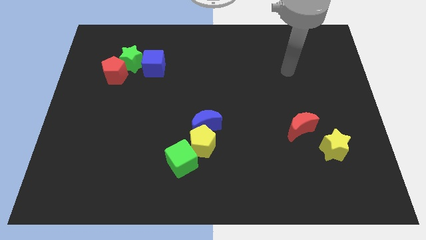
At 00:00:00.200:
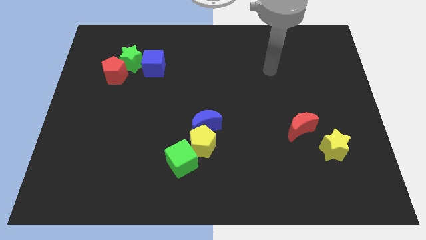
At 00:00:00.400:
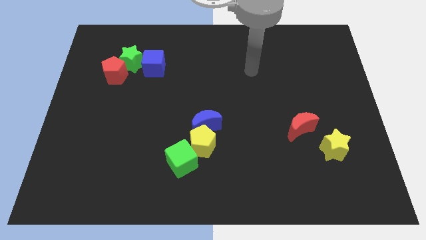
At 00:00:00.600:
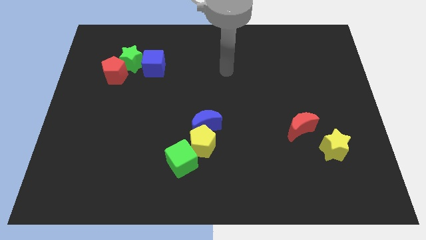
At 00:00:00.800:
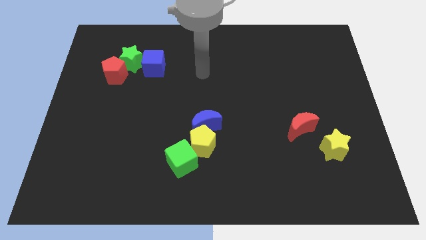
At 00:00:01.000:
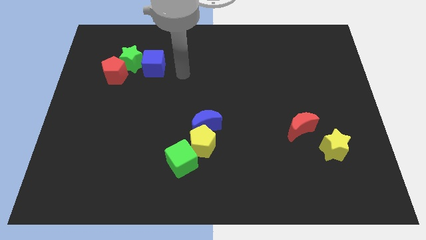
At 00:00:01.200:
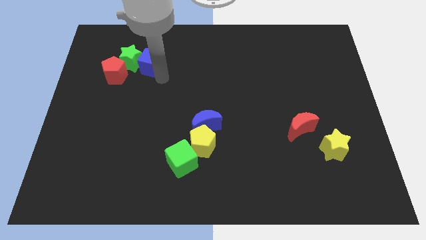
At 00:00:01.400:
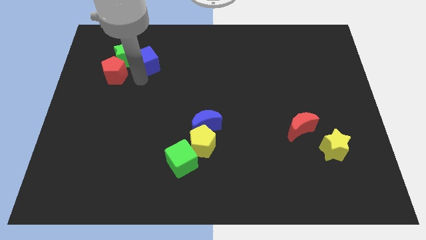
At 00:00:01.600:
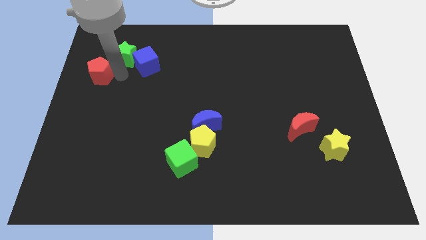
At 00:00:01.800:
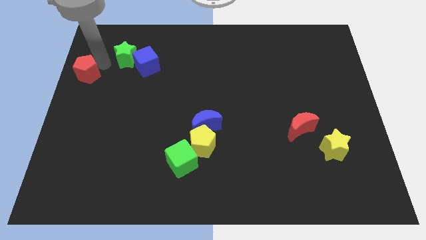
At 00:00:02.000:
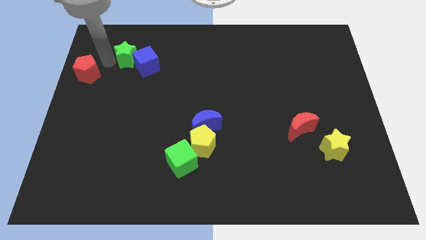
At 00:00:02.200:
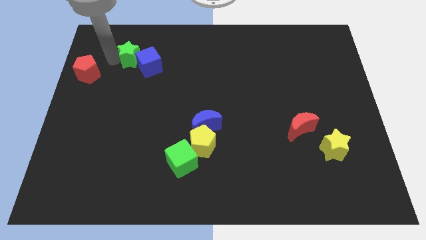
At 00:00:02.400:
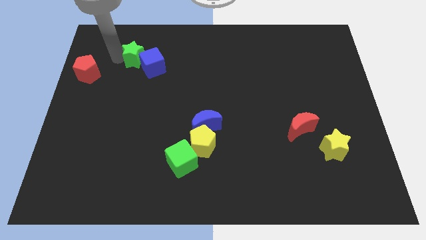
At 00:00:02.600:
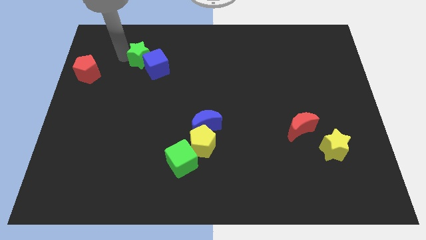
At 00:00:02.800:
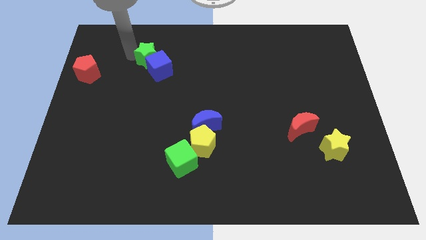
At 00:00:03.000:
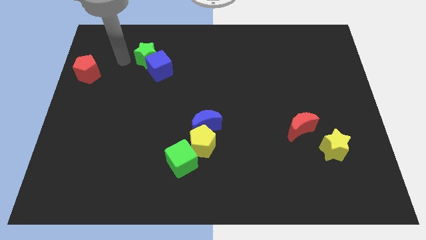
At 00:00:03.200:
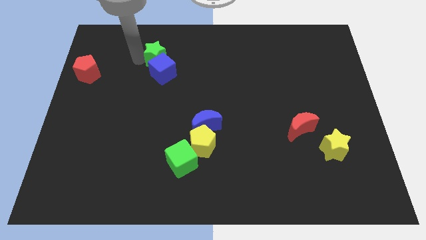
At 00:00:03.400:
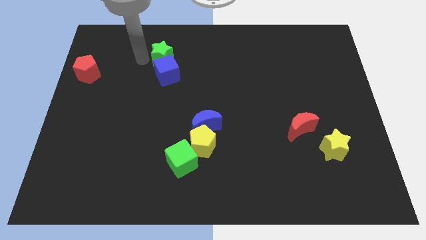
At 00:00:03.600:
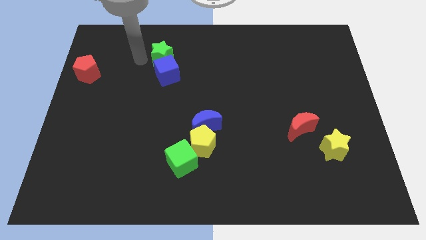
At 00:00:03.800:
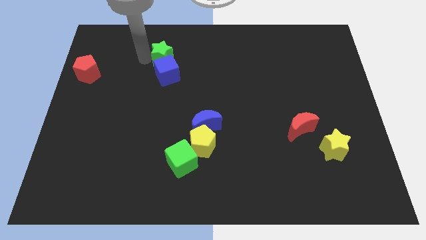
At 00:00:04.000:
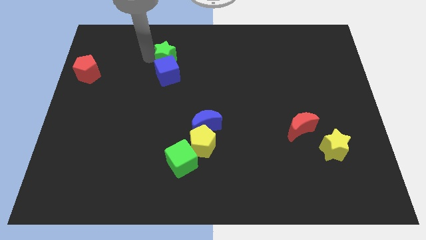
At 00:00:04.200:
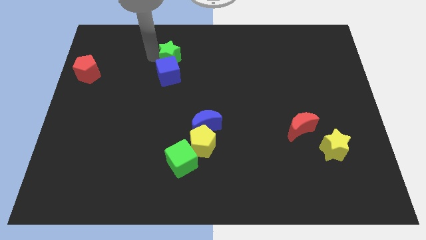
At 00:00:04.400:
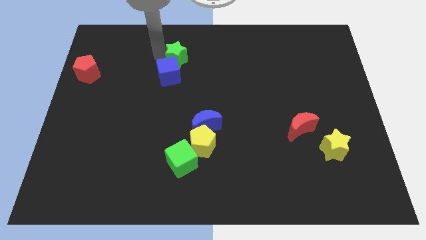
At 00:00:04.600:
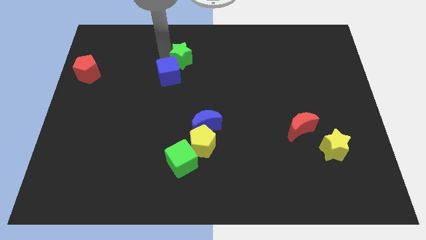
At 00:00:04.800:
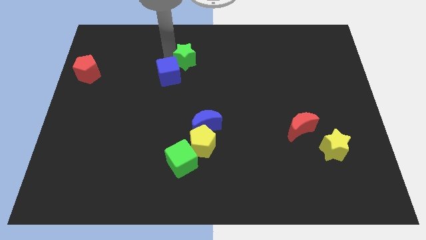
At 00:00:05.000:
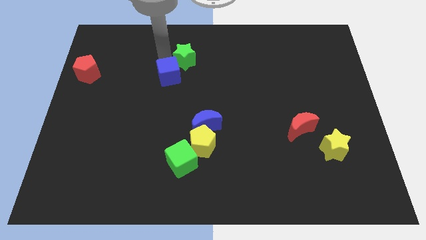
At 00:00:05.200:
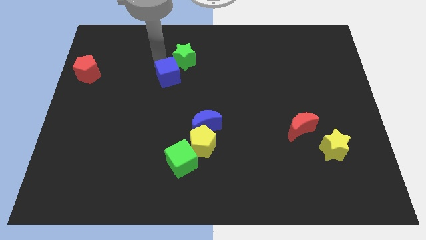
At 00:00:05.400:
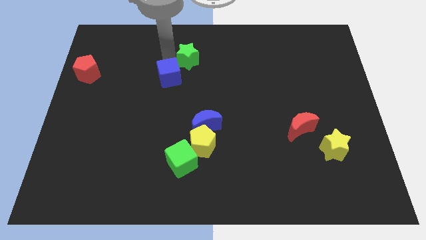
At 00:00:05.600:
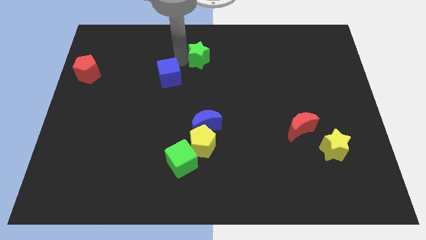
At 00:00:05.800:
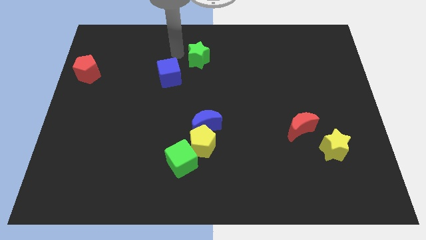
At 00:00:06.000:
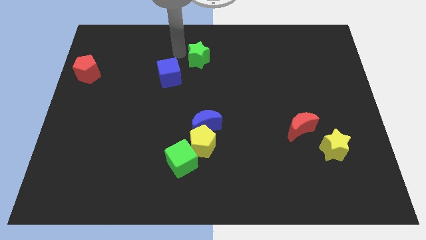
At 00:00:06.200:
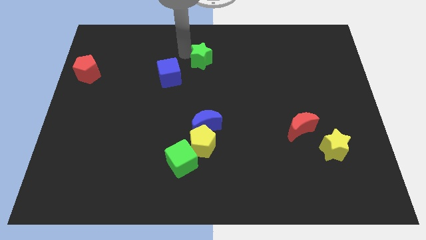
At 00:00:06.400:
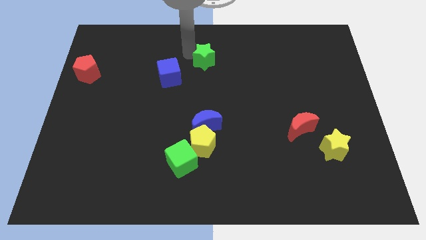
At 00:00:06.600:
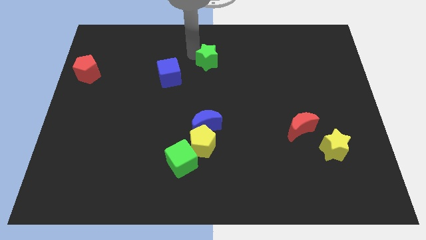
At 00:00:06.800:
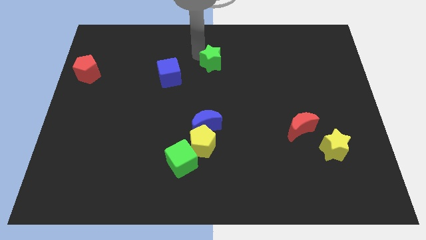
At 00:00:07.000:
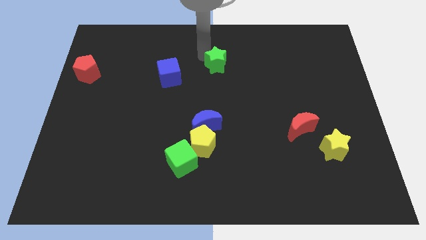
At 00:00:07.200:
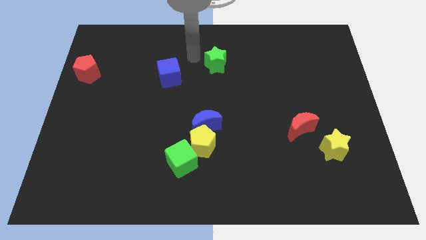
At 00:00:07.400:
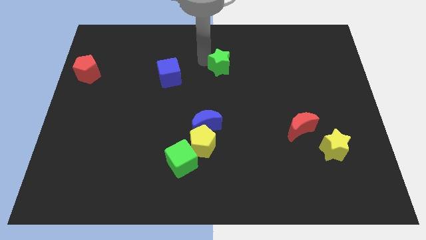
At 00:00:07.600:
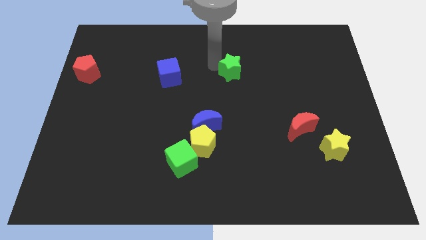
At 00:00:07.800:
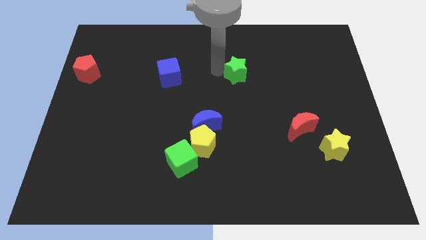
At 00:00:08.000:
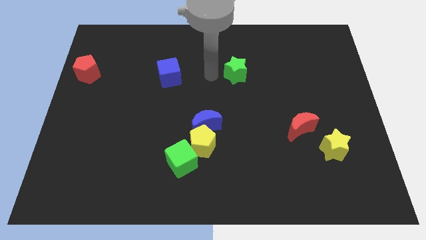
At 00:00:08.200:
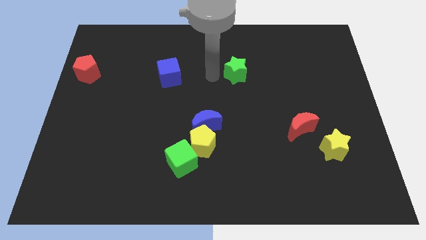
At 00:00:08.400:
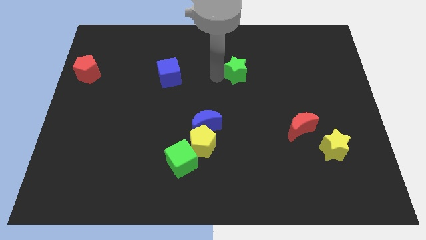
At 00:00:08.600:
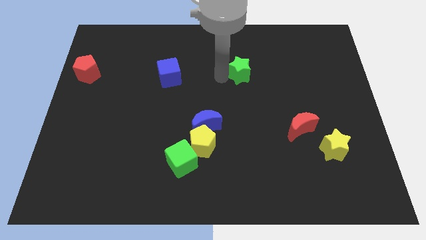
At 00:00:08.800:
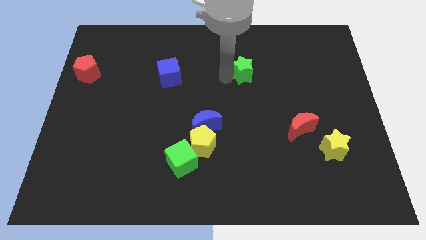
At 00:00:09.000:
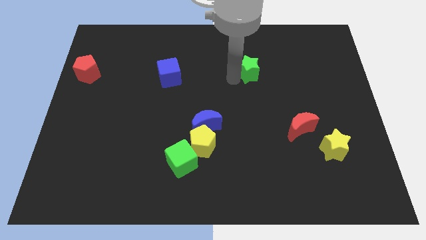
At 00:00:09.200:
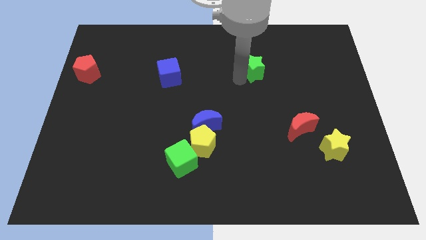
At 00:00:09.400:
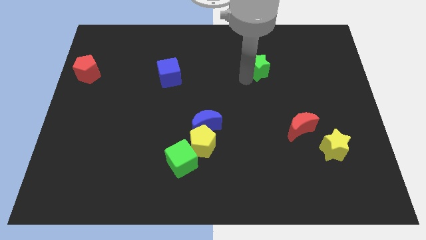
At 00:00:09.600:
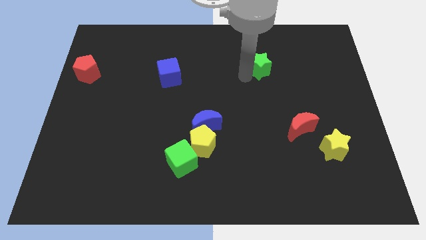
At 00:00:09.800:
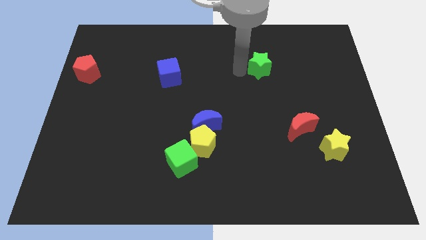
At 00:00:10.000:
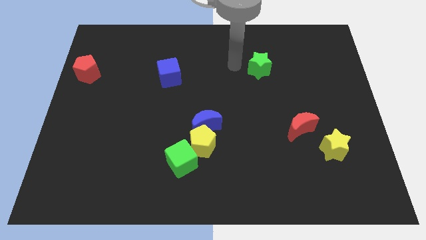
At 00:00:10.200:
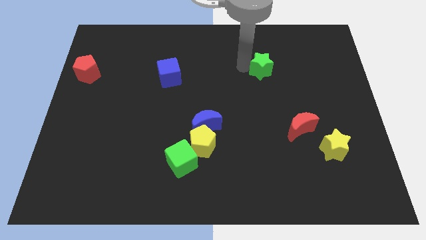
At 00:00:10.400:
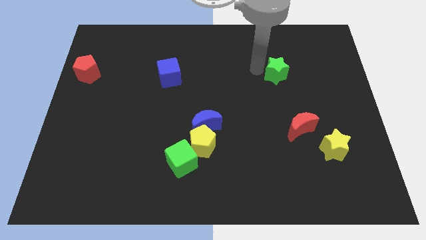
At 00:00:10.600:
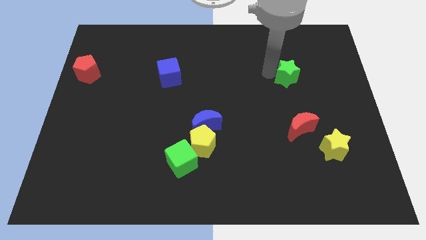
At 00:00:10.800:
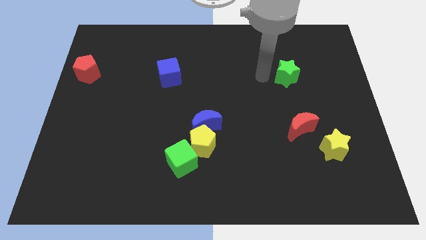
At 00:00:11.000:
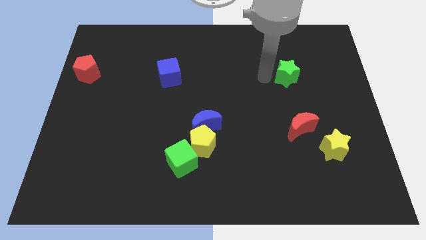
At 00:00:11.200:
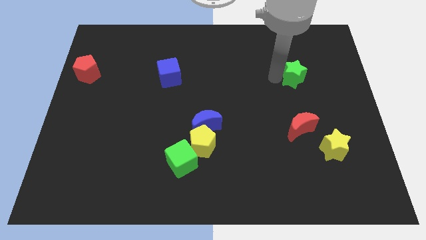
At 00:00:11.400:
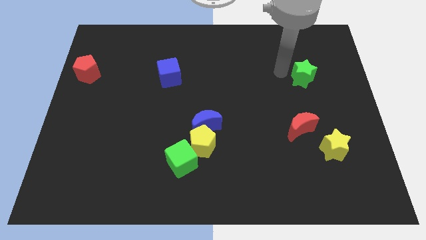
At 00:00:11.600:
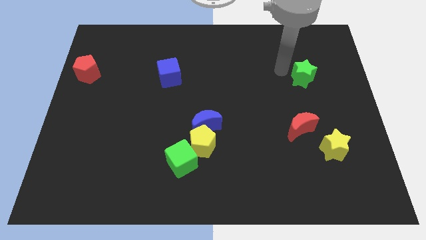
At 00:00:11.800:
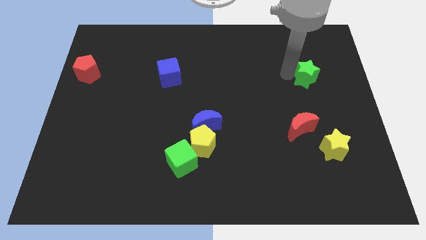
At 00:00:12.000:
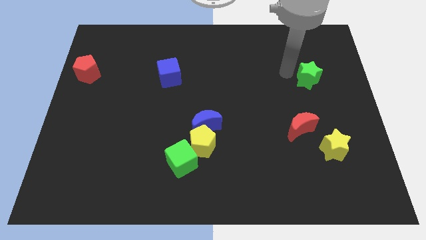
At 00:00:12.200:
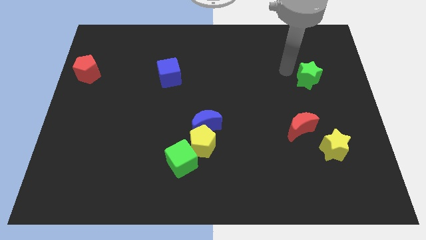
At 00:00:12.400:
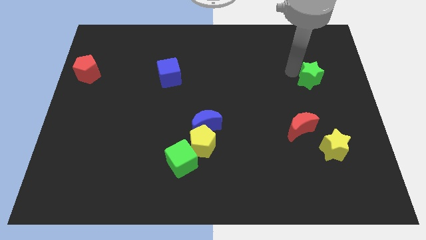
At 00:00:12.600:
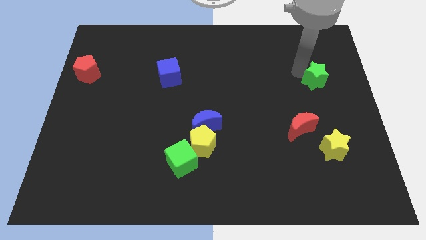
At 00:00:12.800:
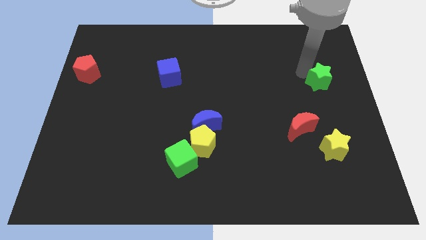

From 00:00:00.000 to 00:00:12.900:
put the green star to the right side
